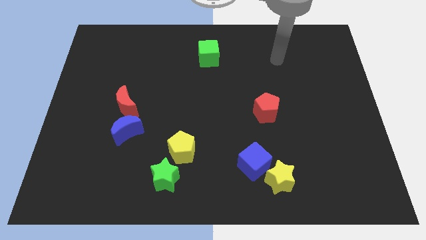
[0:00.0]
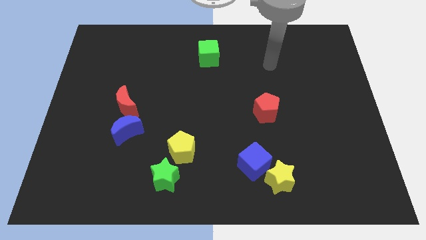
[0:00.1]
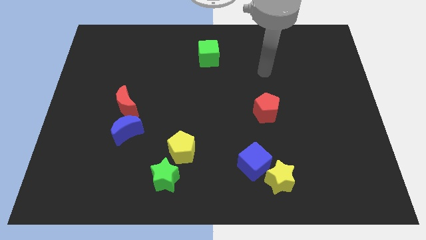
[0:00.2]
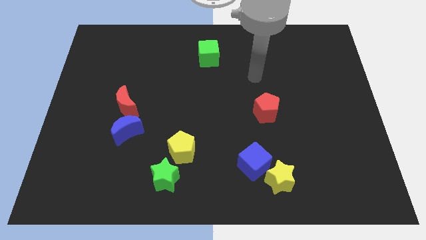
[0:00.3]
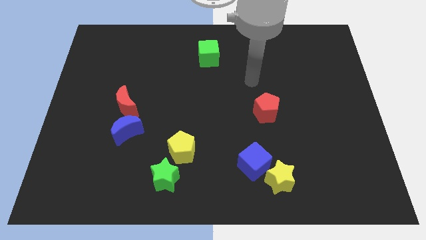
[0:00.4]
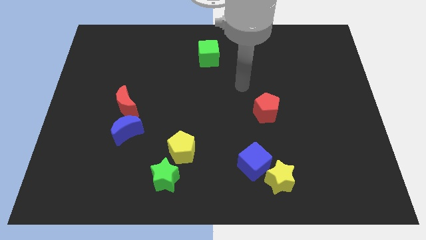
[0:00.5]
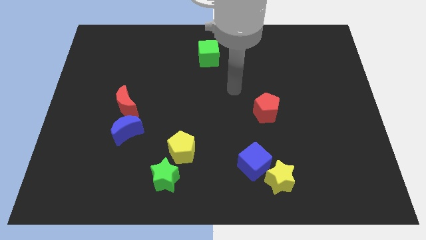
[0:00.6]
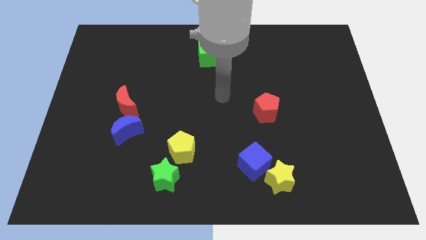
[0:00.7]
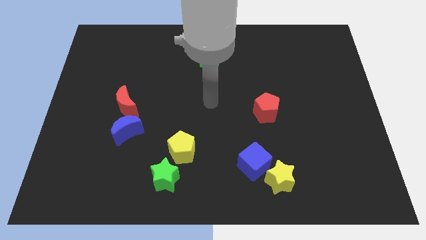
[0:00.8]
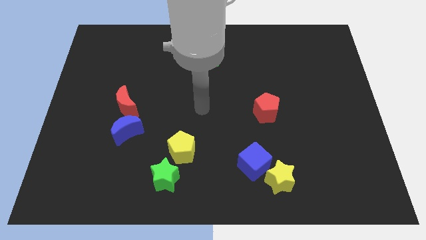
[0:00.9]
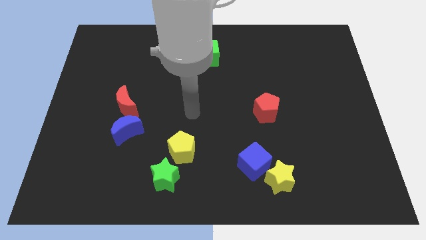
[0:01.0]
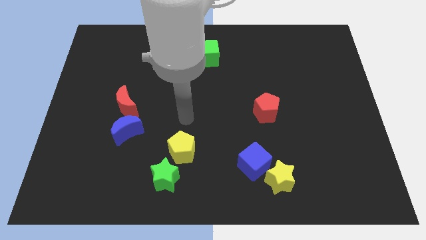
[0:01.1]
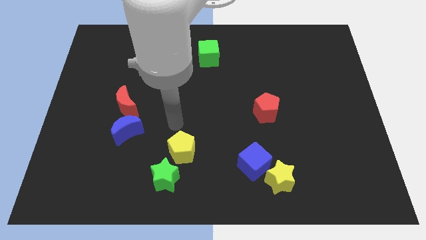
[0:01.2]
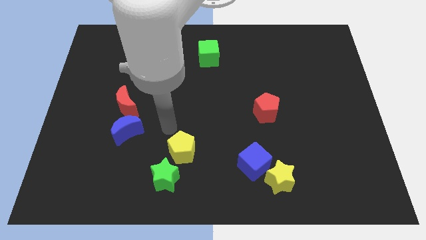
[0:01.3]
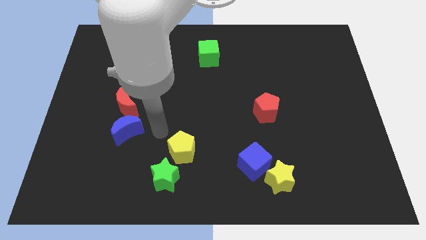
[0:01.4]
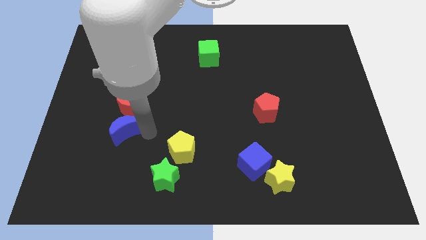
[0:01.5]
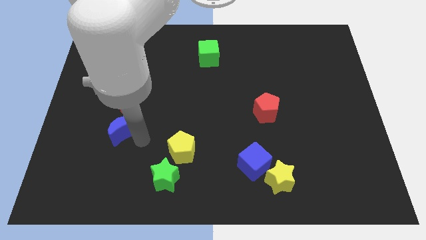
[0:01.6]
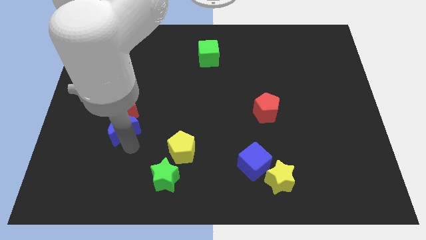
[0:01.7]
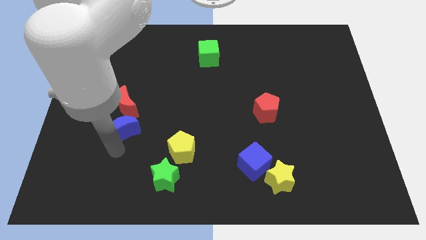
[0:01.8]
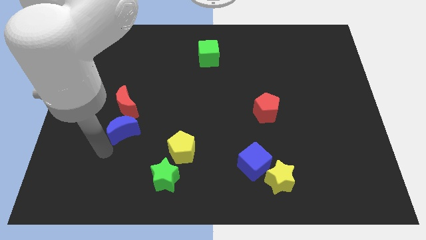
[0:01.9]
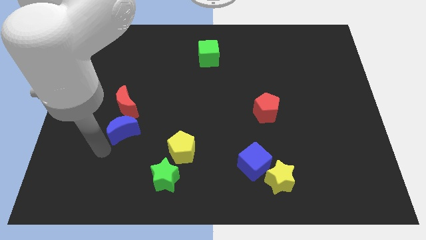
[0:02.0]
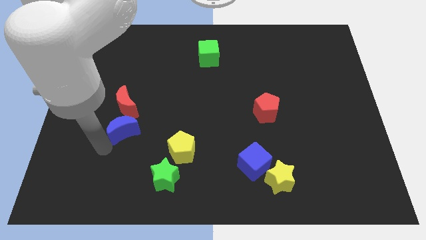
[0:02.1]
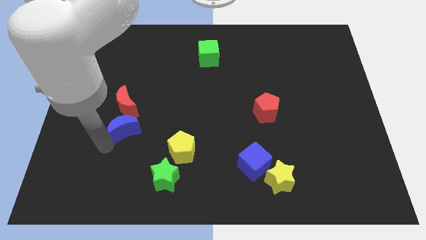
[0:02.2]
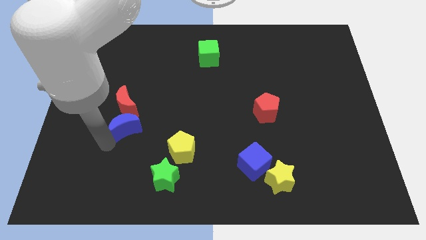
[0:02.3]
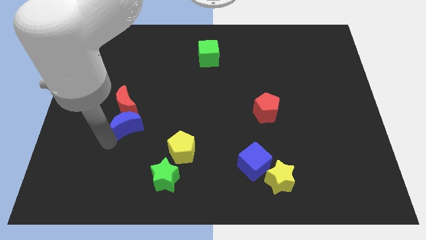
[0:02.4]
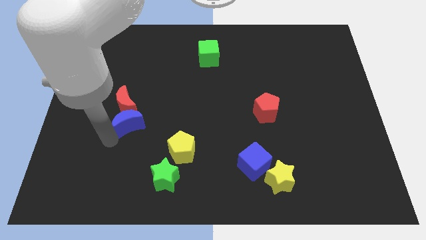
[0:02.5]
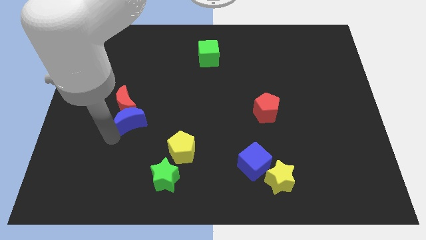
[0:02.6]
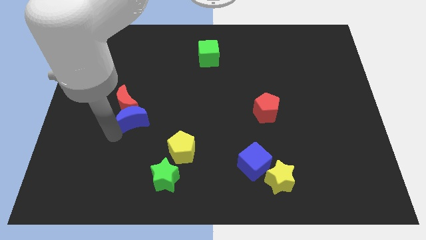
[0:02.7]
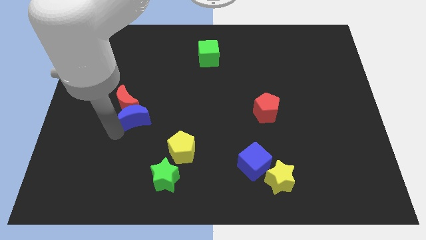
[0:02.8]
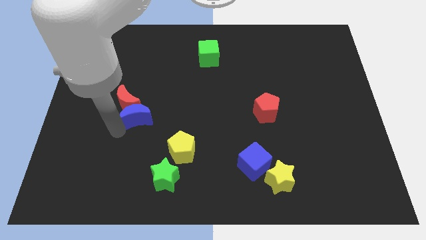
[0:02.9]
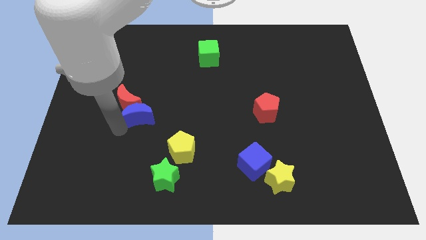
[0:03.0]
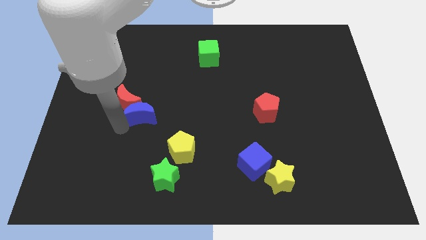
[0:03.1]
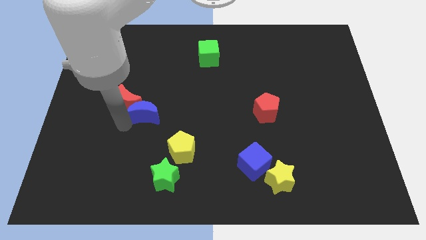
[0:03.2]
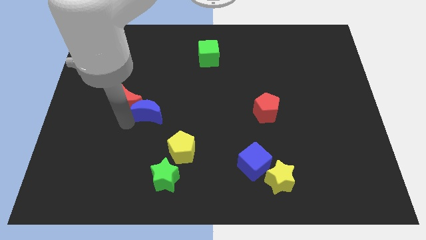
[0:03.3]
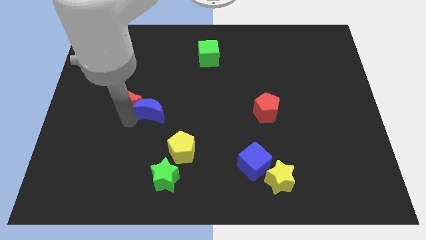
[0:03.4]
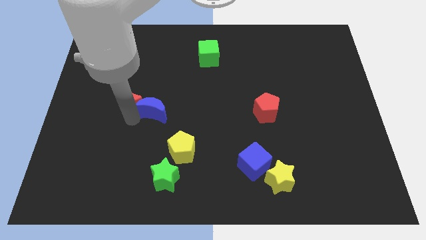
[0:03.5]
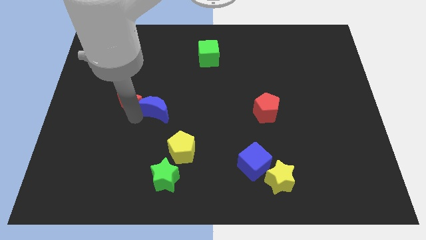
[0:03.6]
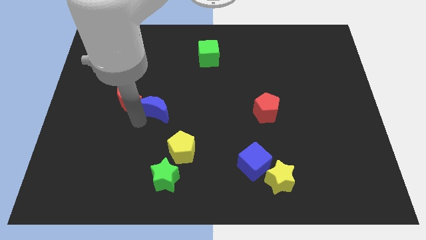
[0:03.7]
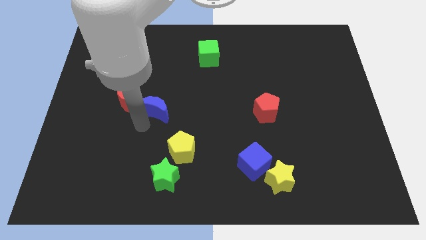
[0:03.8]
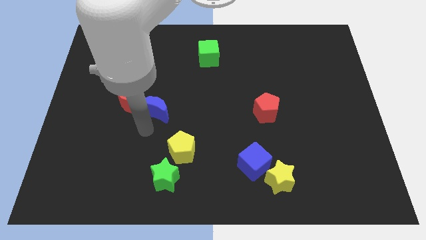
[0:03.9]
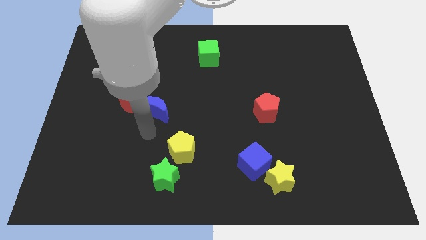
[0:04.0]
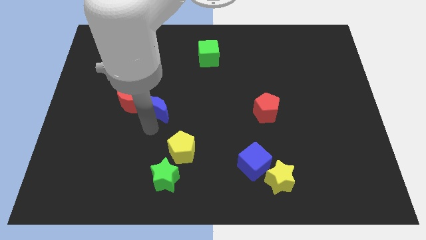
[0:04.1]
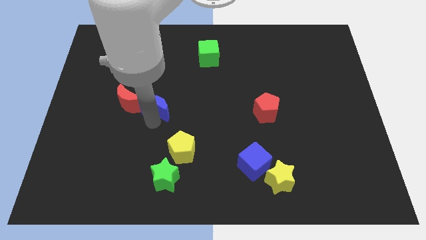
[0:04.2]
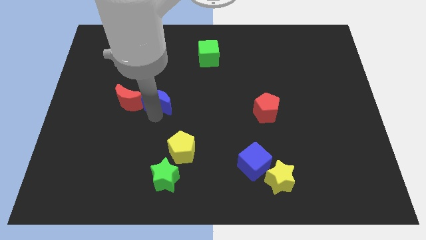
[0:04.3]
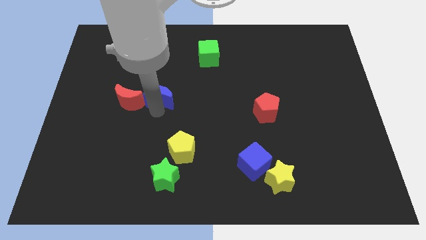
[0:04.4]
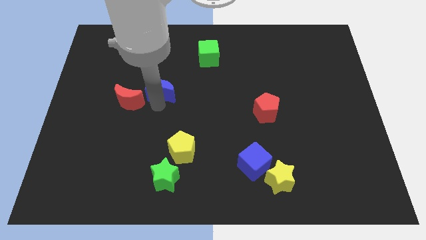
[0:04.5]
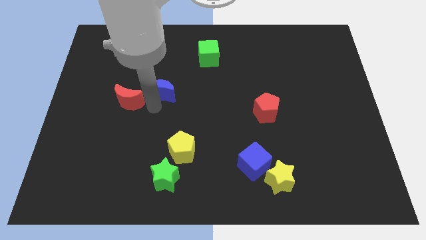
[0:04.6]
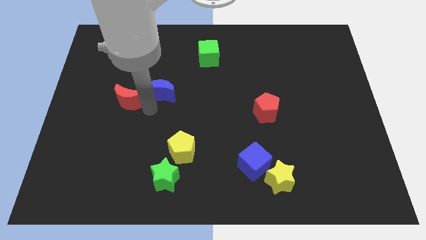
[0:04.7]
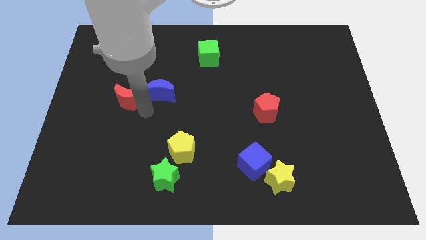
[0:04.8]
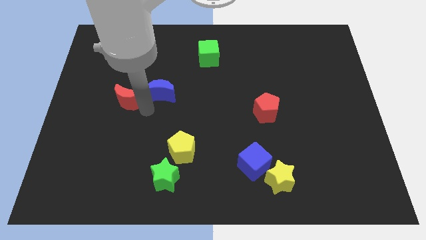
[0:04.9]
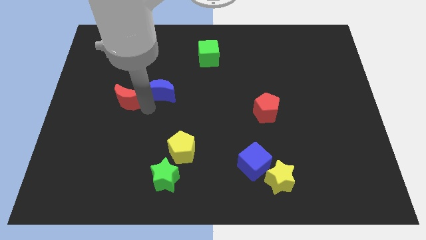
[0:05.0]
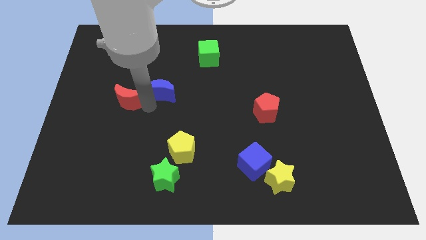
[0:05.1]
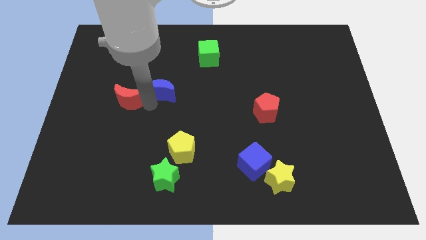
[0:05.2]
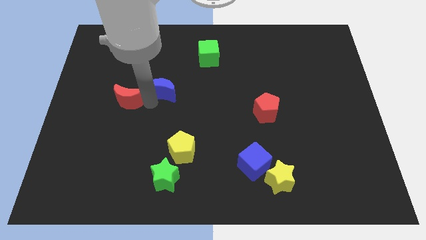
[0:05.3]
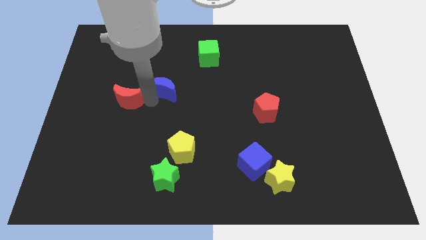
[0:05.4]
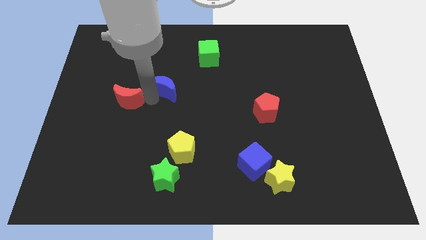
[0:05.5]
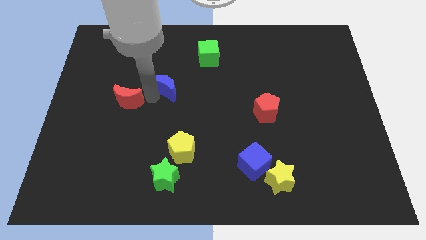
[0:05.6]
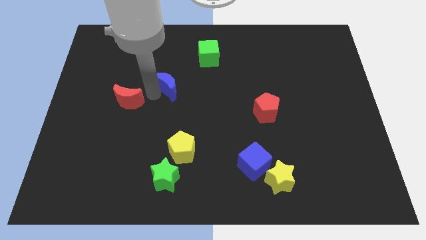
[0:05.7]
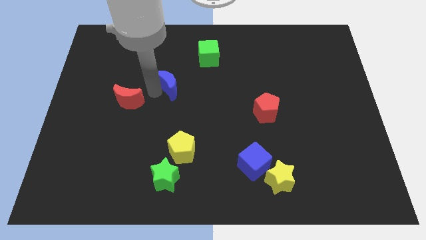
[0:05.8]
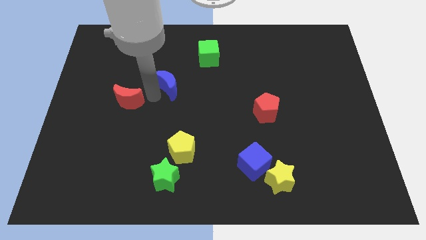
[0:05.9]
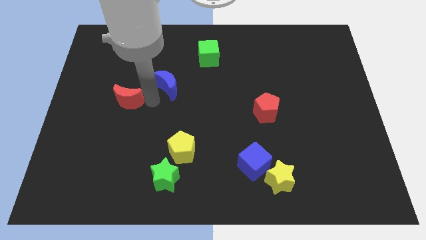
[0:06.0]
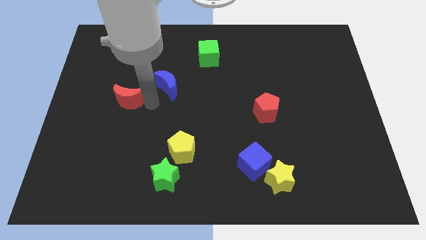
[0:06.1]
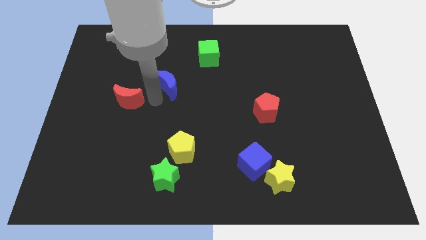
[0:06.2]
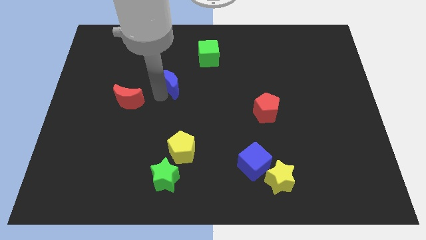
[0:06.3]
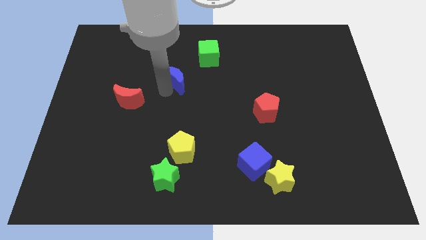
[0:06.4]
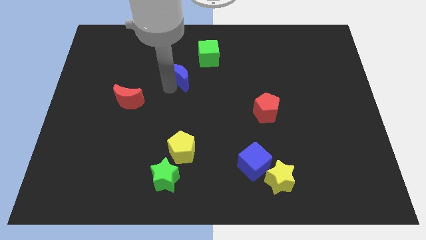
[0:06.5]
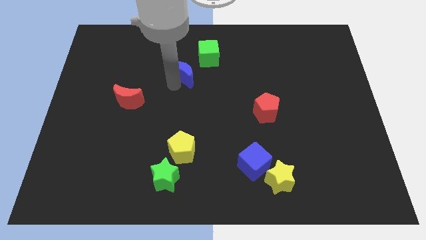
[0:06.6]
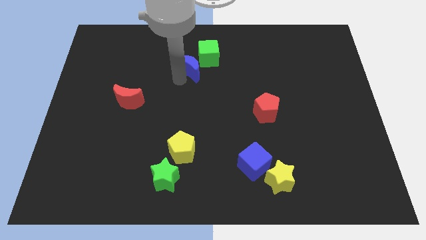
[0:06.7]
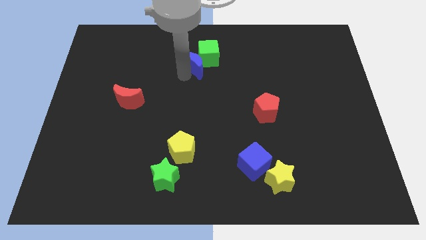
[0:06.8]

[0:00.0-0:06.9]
put the blue moon next to the green cube
